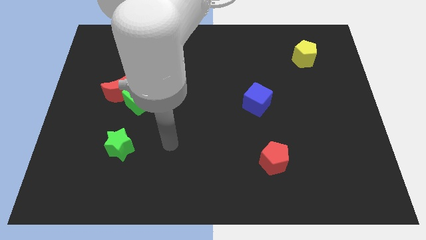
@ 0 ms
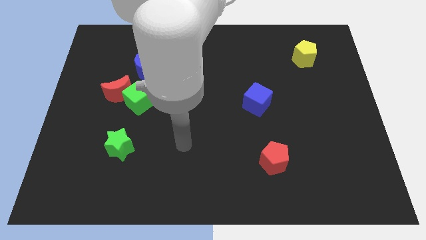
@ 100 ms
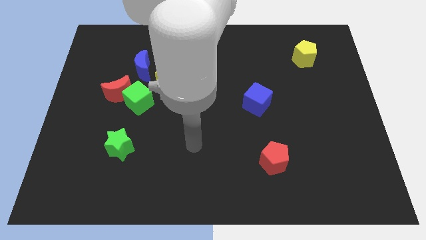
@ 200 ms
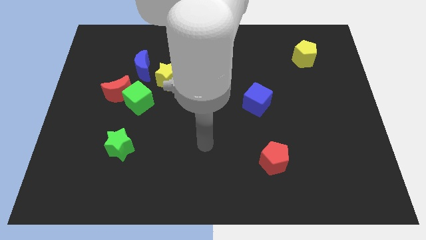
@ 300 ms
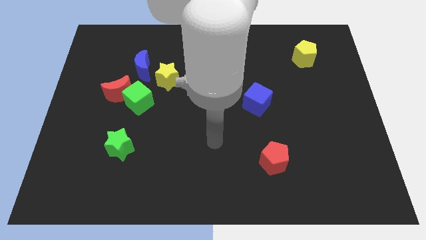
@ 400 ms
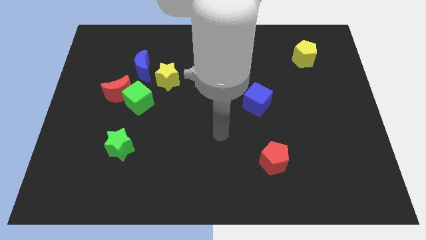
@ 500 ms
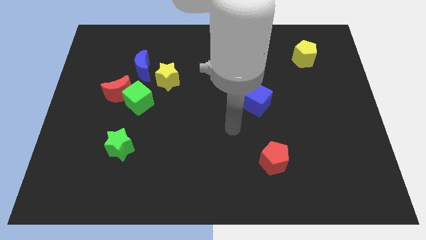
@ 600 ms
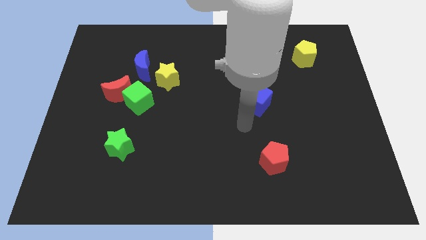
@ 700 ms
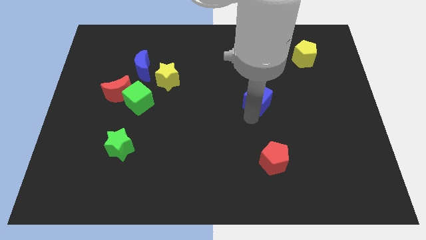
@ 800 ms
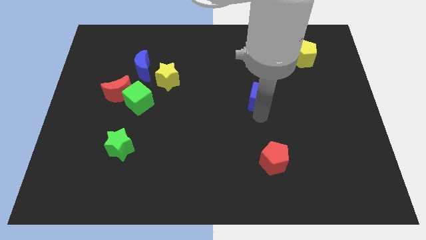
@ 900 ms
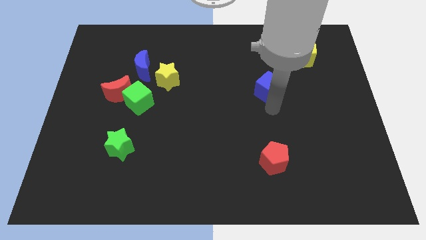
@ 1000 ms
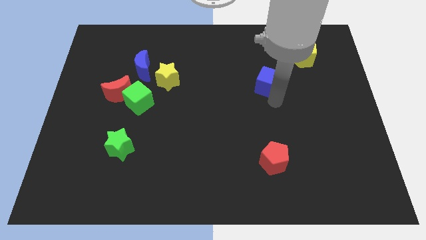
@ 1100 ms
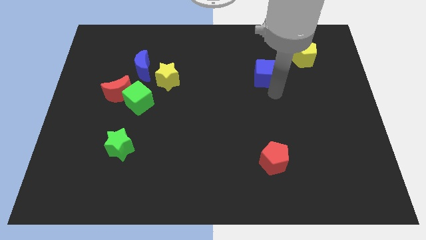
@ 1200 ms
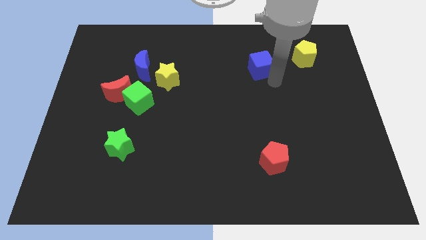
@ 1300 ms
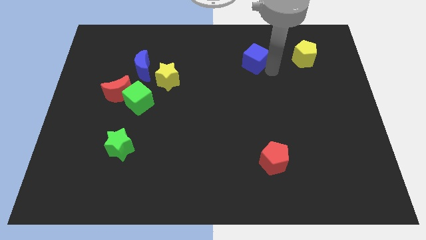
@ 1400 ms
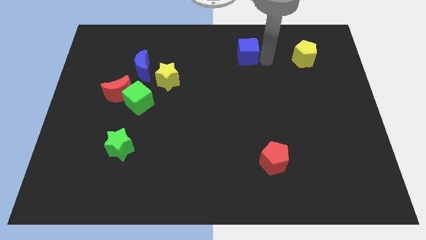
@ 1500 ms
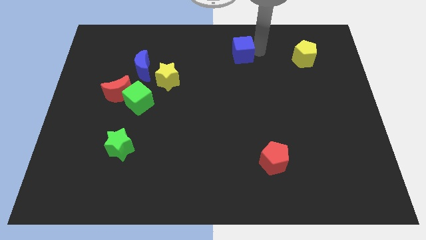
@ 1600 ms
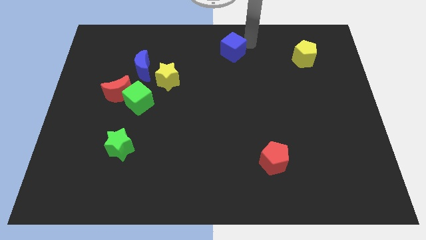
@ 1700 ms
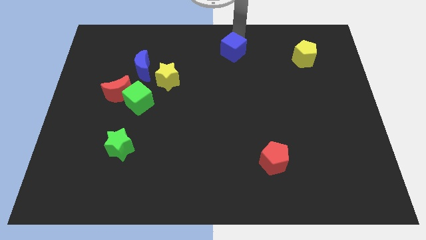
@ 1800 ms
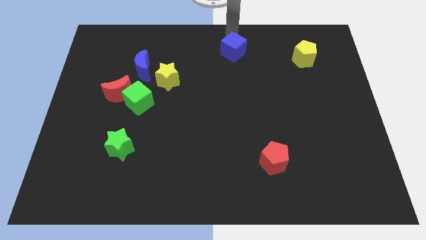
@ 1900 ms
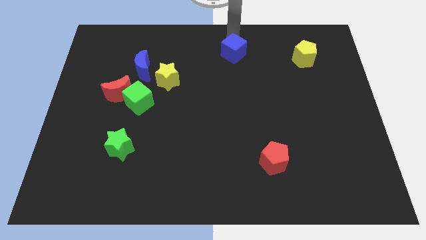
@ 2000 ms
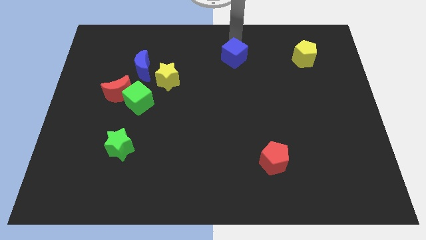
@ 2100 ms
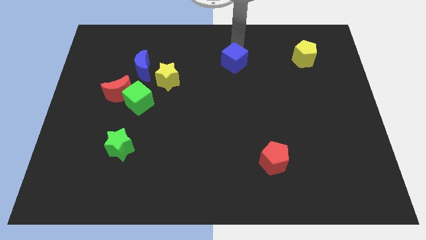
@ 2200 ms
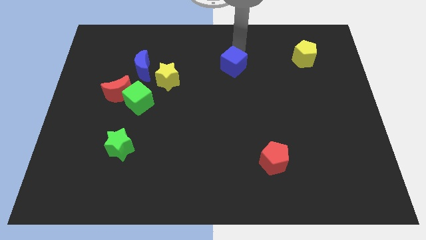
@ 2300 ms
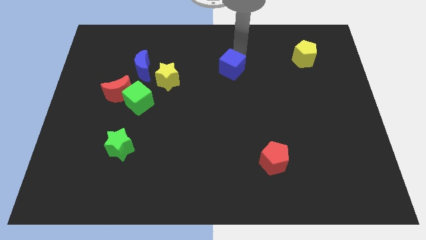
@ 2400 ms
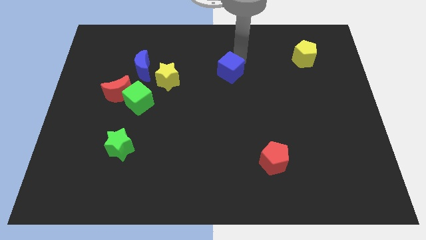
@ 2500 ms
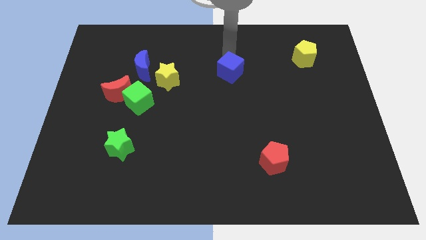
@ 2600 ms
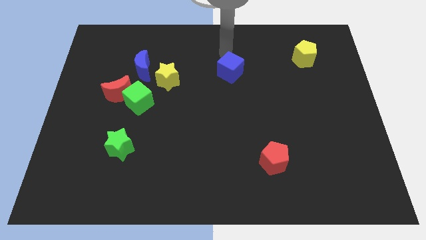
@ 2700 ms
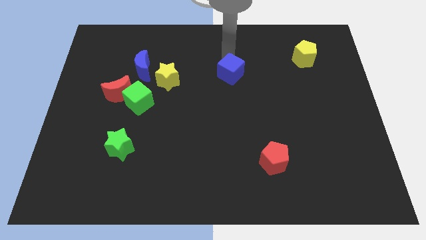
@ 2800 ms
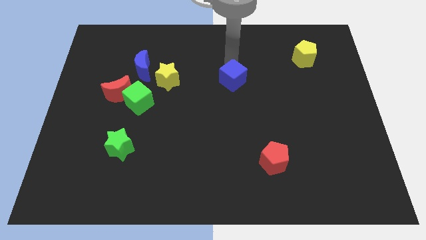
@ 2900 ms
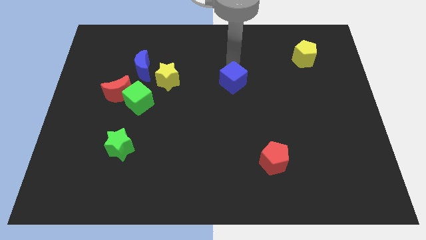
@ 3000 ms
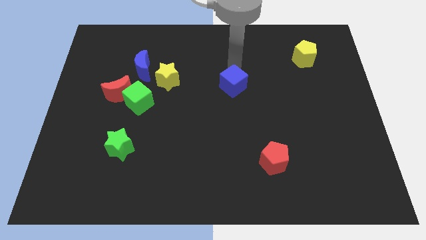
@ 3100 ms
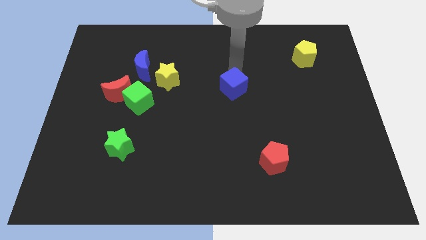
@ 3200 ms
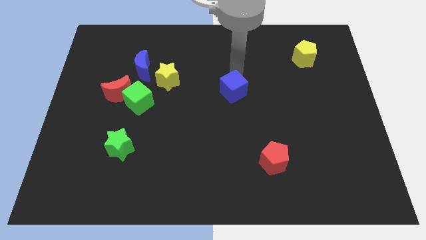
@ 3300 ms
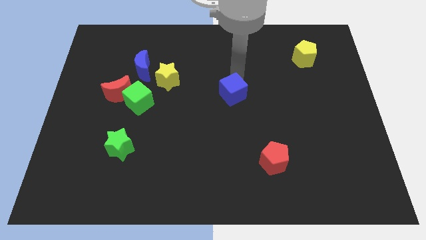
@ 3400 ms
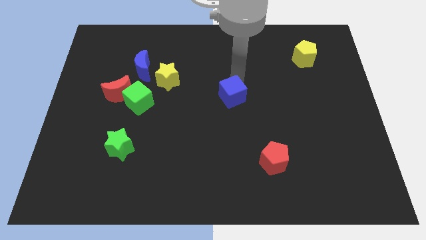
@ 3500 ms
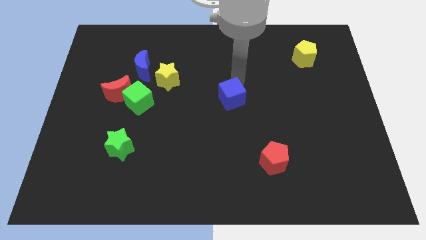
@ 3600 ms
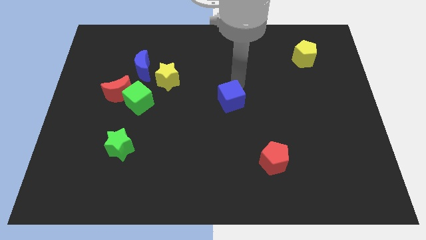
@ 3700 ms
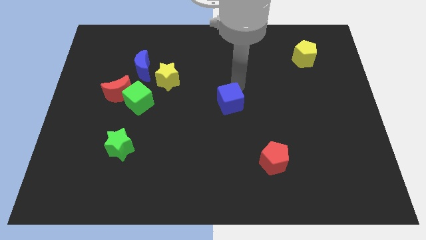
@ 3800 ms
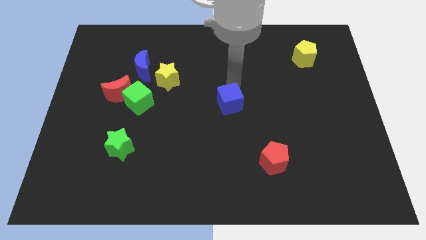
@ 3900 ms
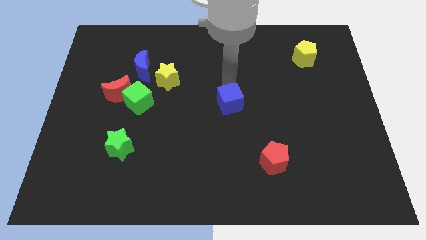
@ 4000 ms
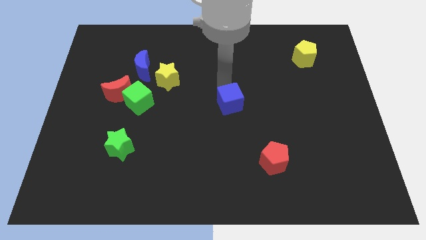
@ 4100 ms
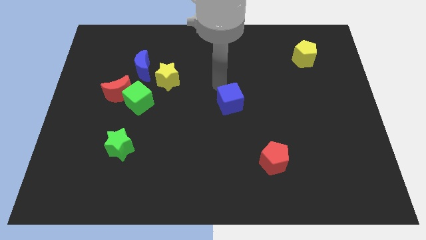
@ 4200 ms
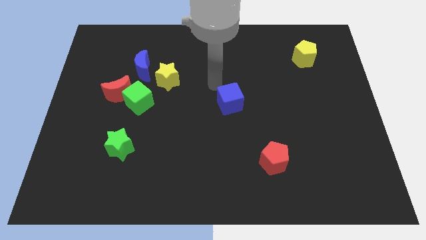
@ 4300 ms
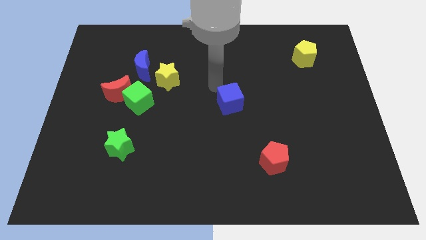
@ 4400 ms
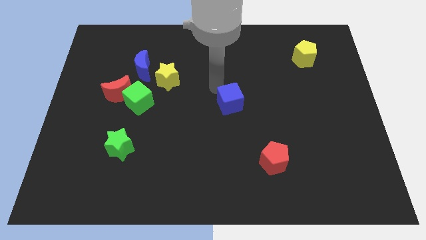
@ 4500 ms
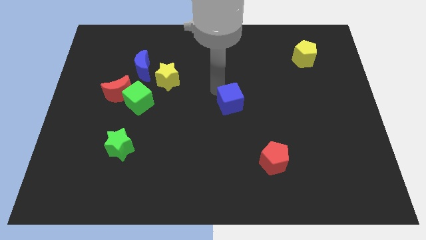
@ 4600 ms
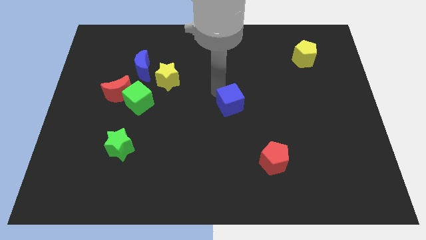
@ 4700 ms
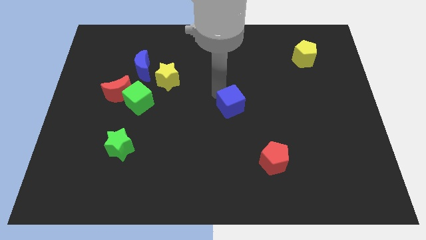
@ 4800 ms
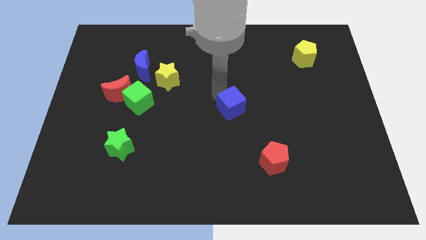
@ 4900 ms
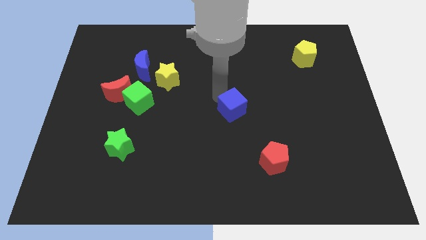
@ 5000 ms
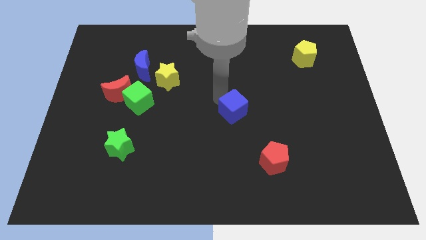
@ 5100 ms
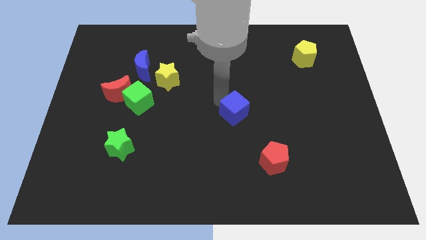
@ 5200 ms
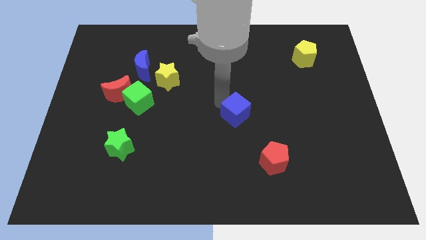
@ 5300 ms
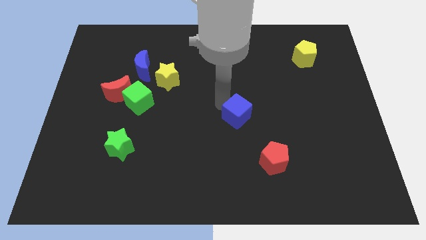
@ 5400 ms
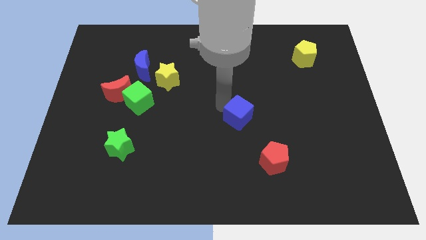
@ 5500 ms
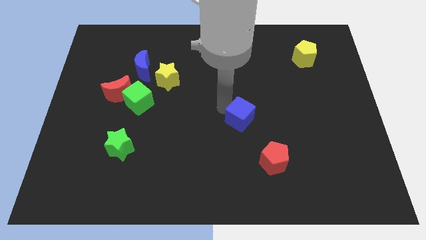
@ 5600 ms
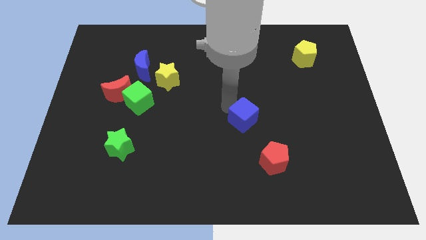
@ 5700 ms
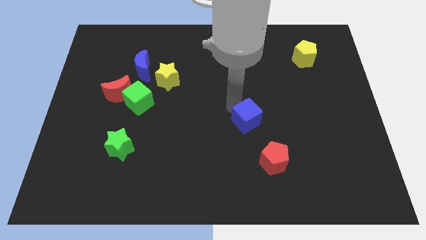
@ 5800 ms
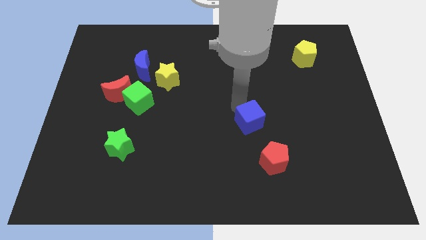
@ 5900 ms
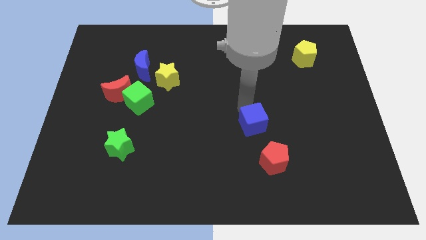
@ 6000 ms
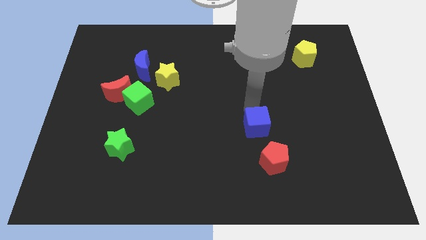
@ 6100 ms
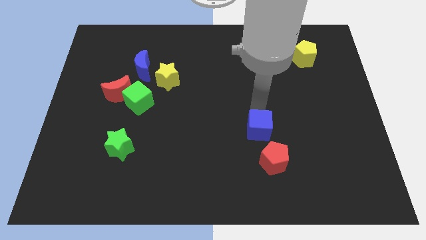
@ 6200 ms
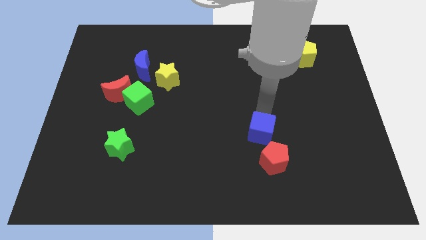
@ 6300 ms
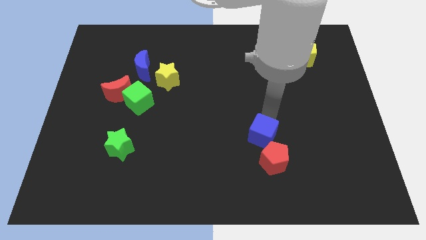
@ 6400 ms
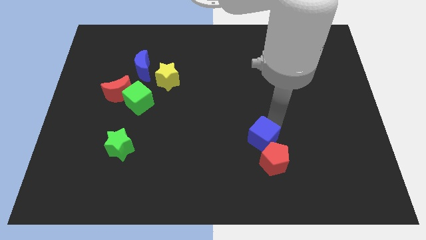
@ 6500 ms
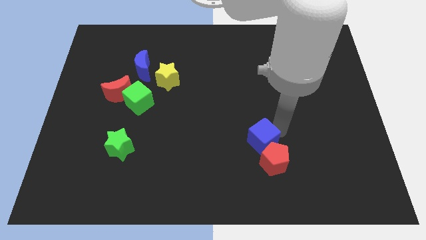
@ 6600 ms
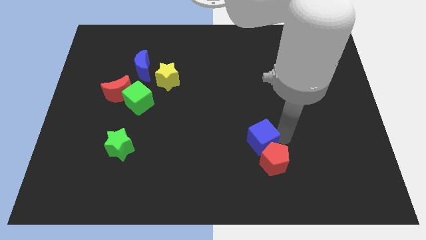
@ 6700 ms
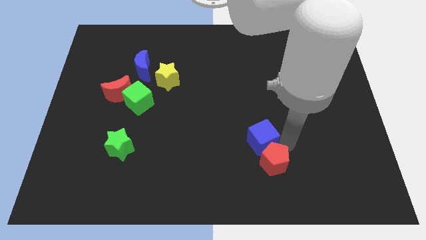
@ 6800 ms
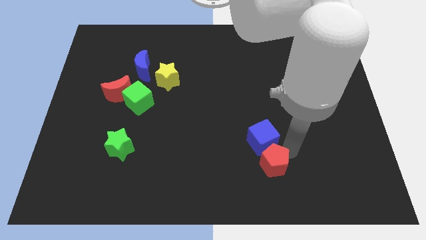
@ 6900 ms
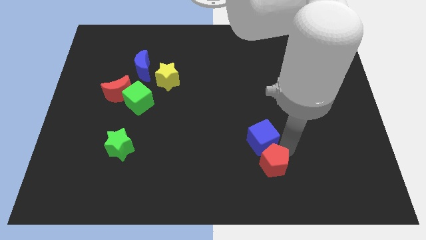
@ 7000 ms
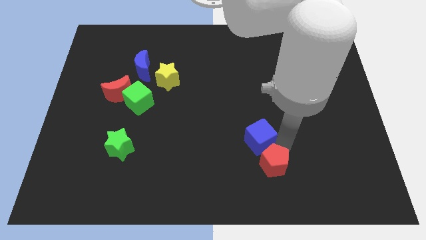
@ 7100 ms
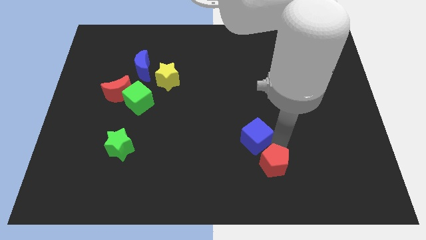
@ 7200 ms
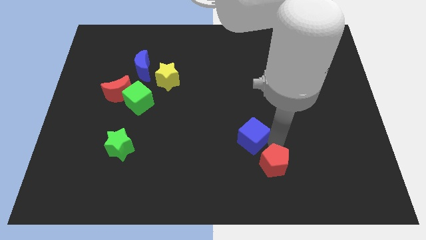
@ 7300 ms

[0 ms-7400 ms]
move the blue cube somewhat downwards and to the left diagonally

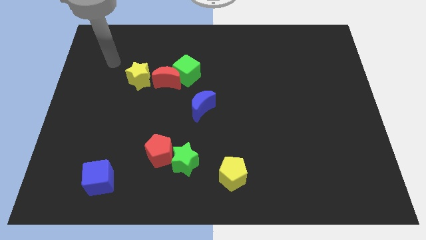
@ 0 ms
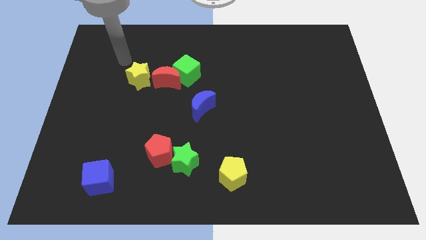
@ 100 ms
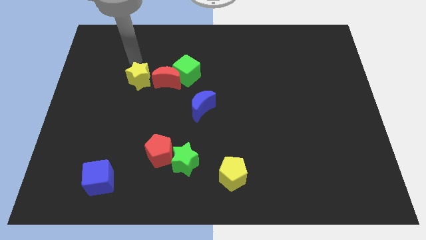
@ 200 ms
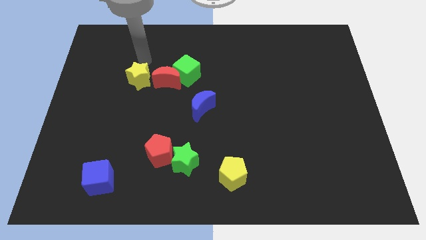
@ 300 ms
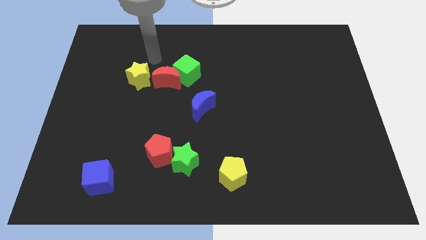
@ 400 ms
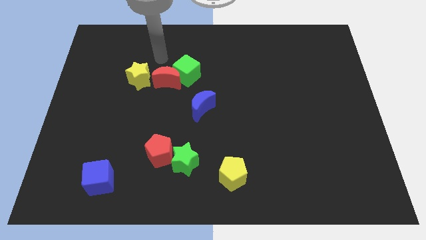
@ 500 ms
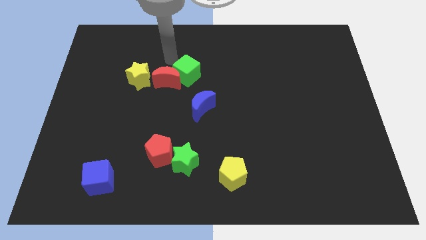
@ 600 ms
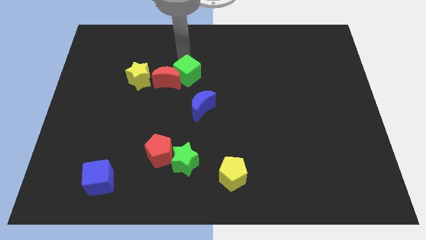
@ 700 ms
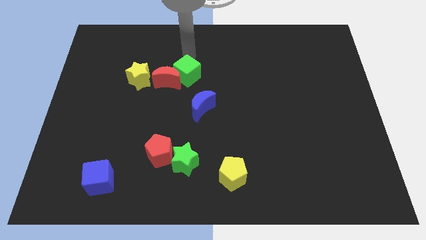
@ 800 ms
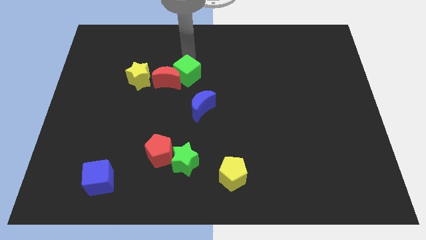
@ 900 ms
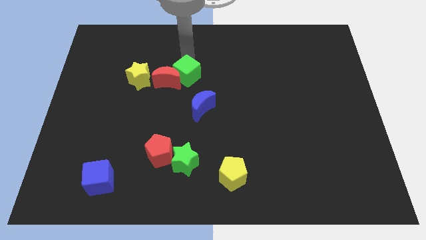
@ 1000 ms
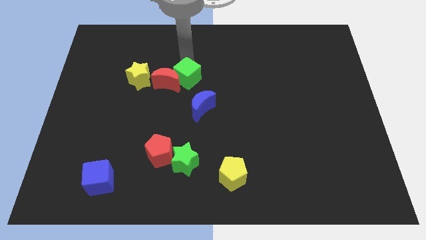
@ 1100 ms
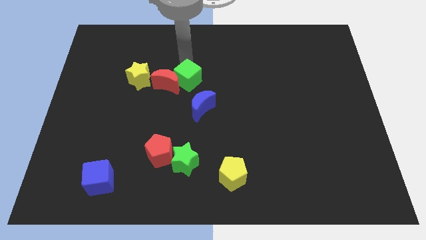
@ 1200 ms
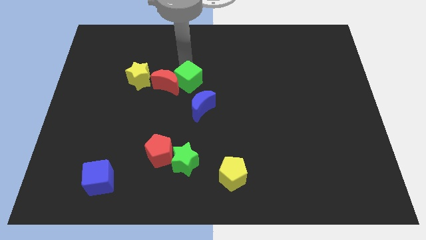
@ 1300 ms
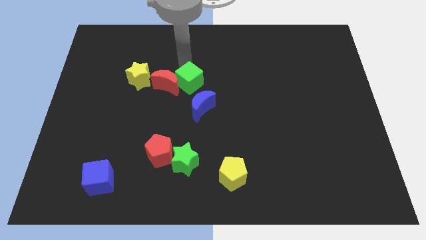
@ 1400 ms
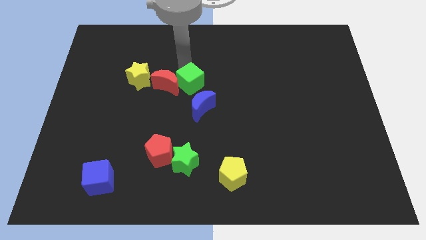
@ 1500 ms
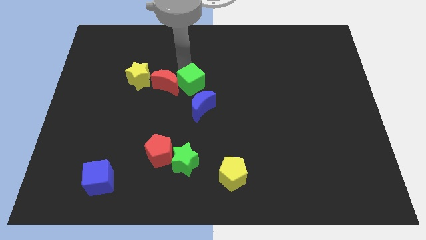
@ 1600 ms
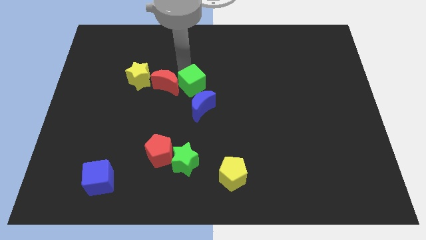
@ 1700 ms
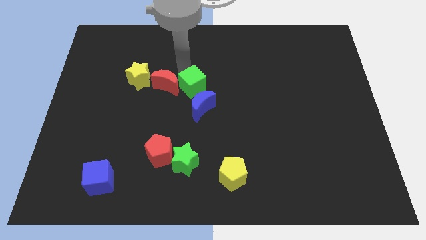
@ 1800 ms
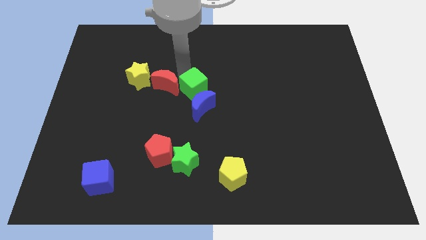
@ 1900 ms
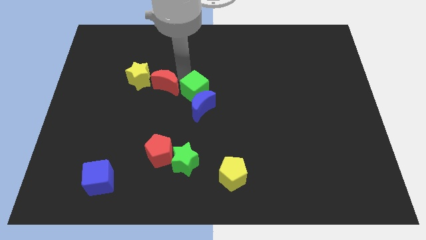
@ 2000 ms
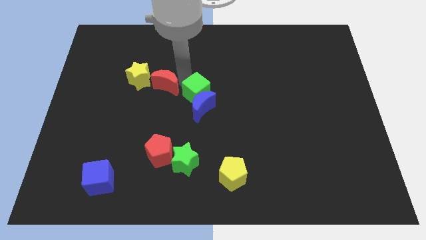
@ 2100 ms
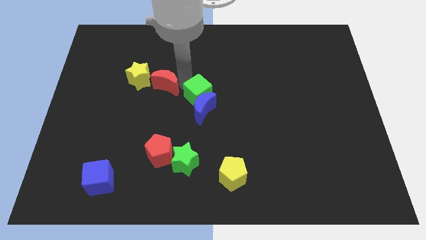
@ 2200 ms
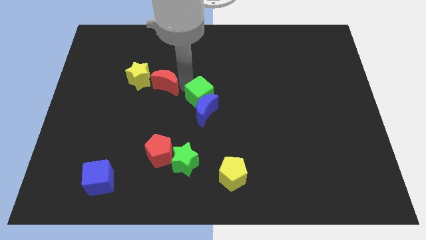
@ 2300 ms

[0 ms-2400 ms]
push the green cube down slightly
